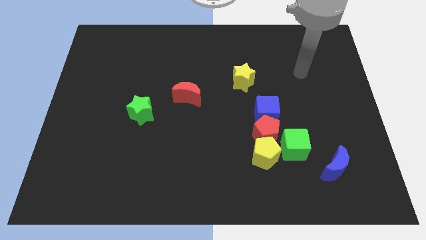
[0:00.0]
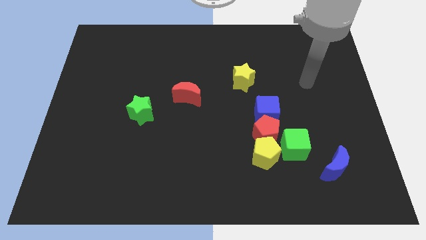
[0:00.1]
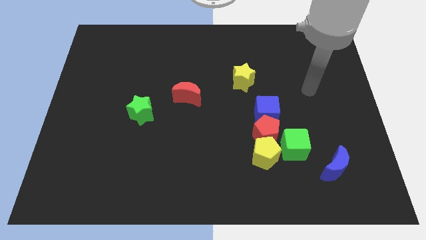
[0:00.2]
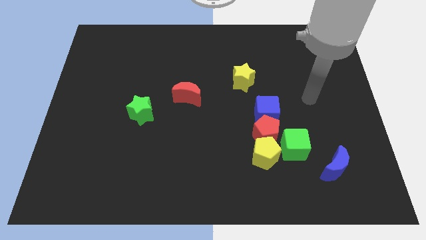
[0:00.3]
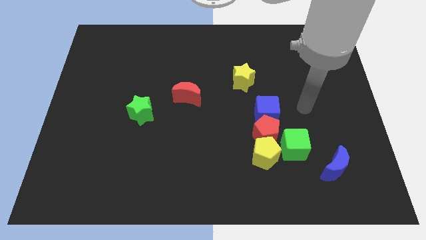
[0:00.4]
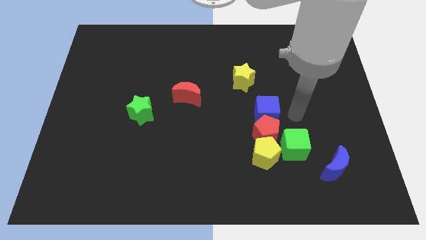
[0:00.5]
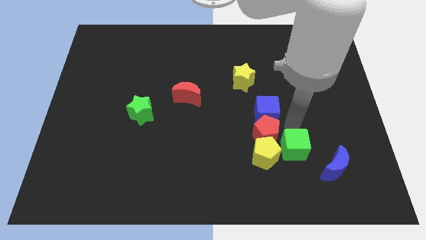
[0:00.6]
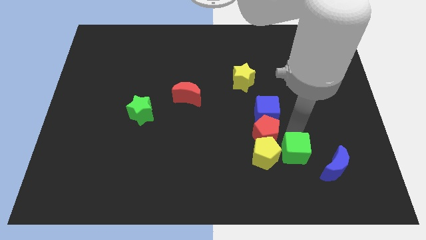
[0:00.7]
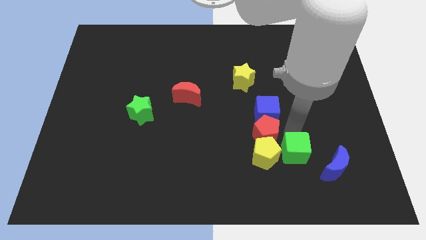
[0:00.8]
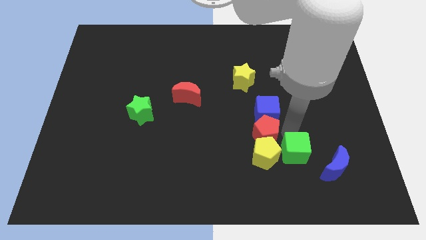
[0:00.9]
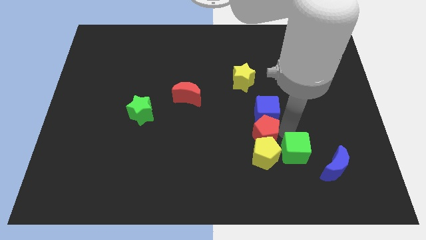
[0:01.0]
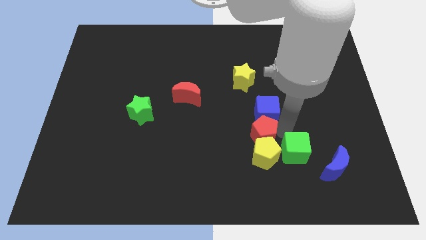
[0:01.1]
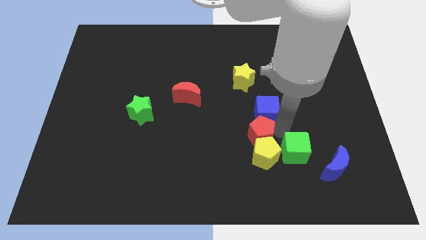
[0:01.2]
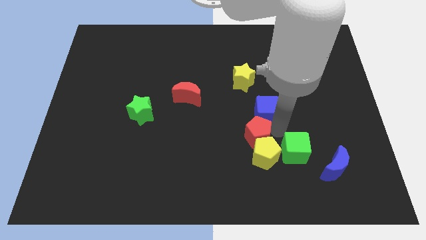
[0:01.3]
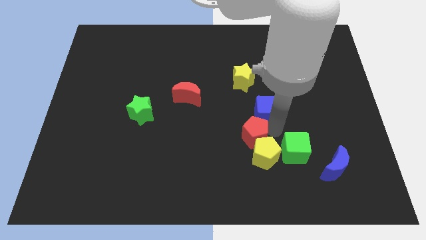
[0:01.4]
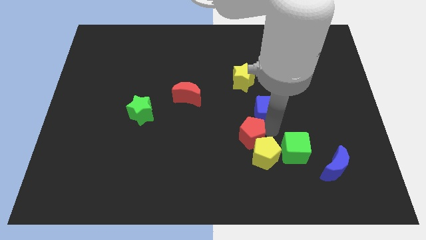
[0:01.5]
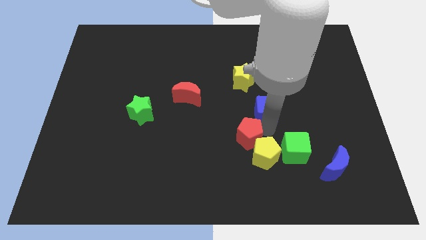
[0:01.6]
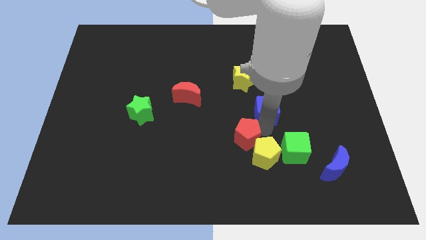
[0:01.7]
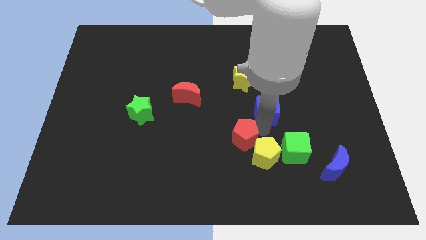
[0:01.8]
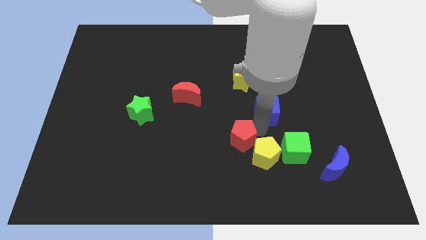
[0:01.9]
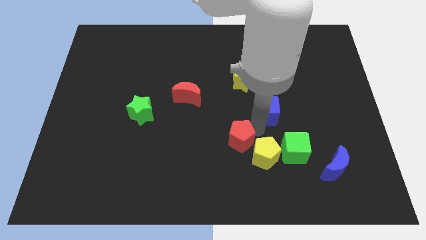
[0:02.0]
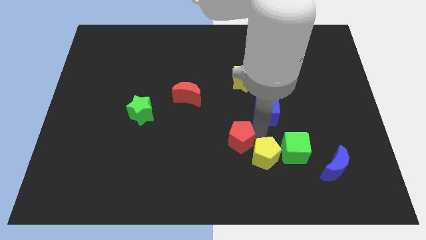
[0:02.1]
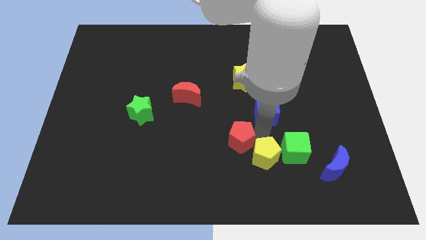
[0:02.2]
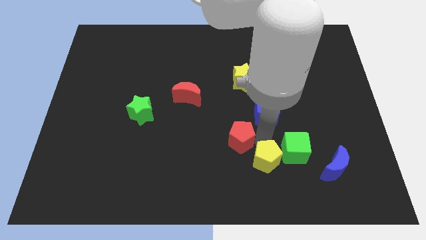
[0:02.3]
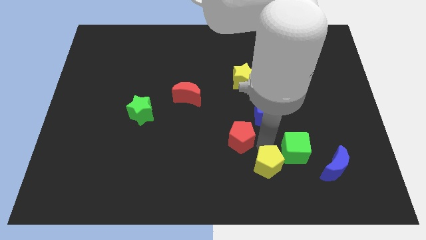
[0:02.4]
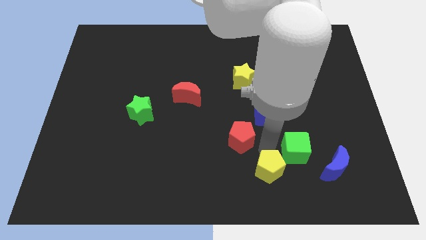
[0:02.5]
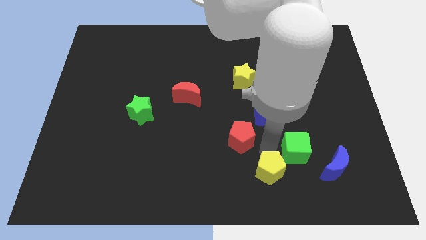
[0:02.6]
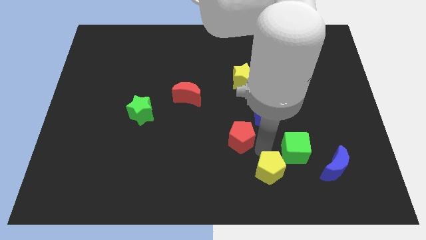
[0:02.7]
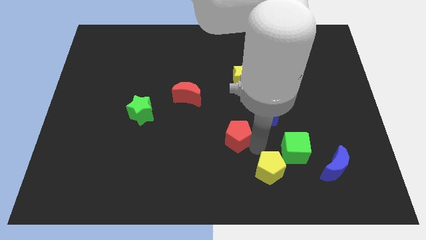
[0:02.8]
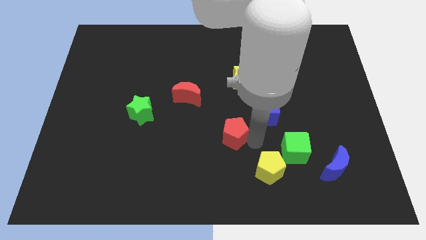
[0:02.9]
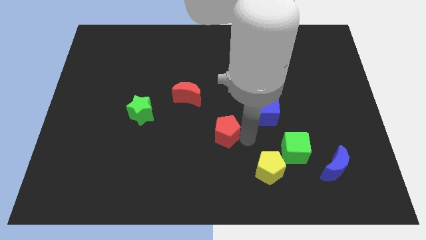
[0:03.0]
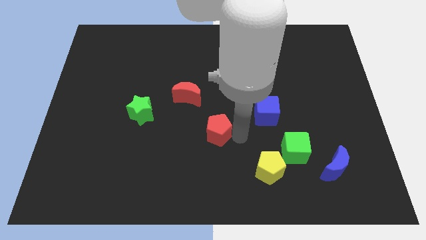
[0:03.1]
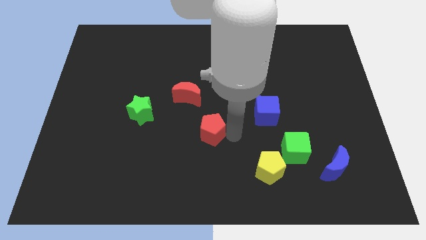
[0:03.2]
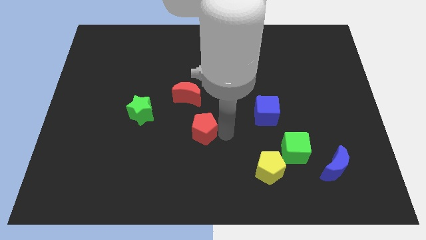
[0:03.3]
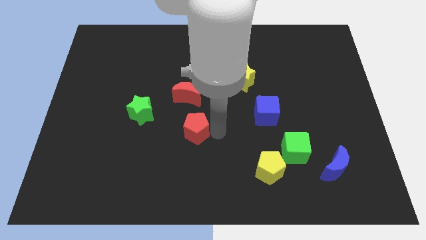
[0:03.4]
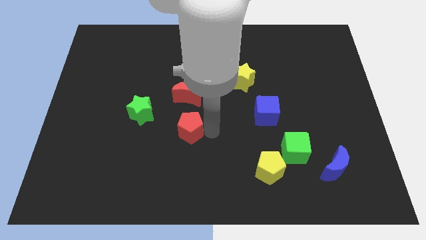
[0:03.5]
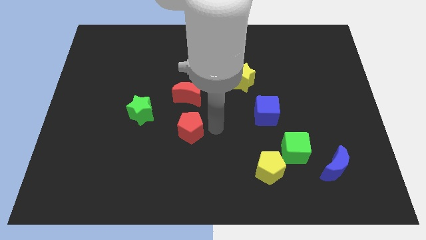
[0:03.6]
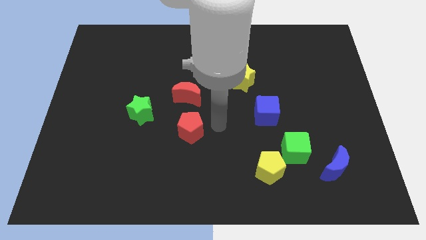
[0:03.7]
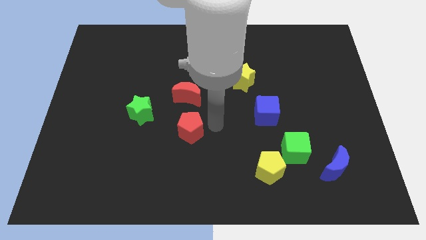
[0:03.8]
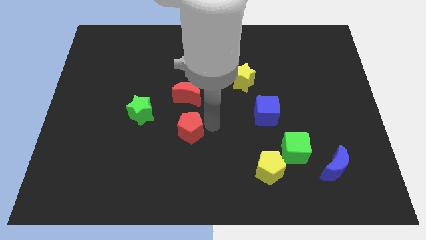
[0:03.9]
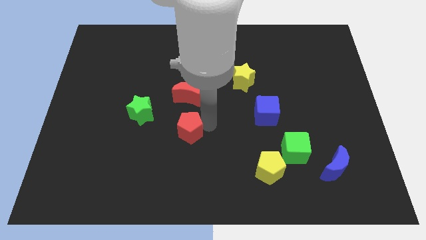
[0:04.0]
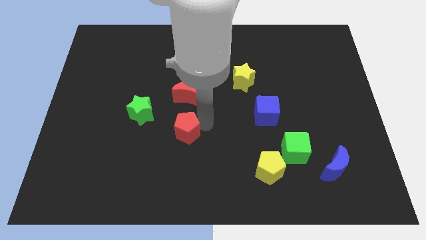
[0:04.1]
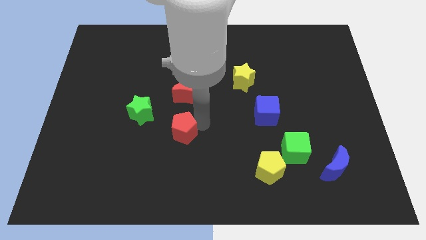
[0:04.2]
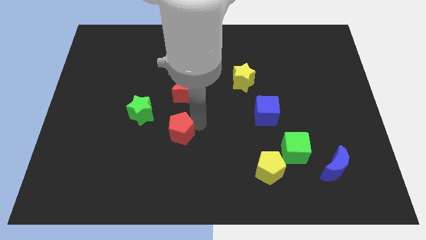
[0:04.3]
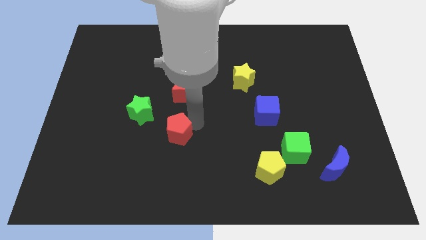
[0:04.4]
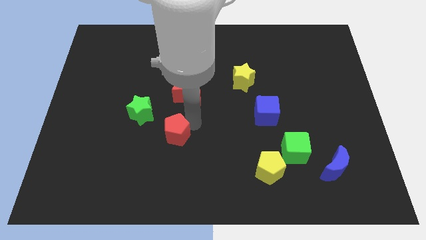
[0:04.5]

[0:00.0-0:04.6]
push the red pentagon to the left

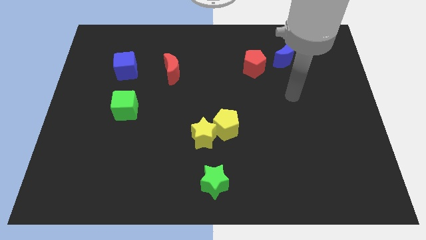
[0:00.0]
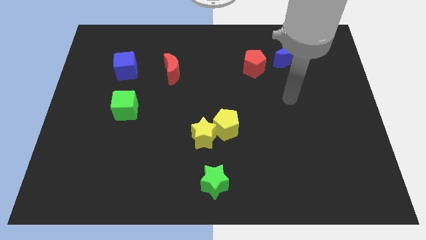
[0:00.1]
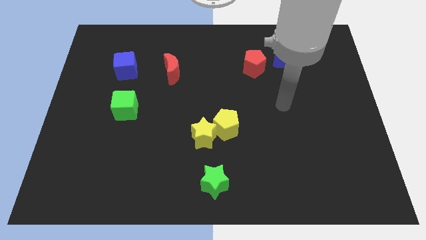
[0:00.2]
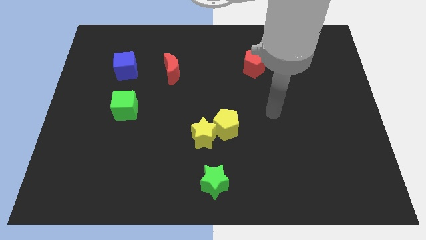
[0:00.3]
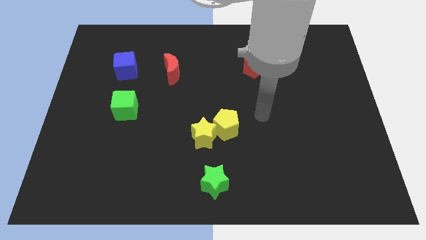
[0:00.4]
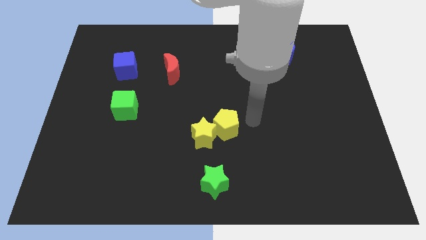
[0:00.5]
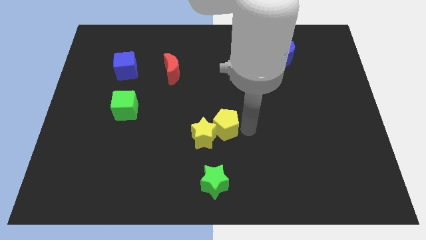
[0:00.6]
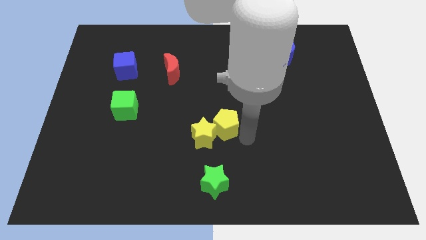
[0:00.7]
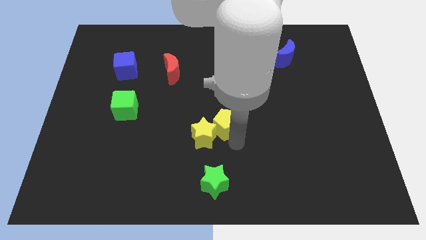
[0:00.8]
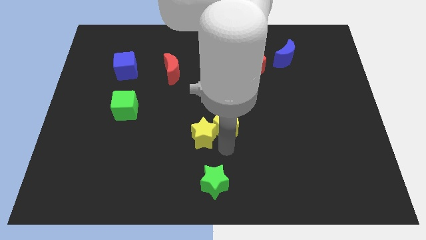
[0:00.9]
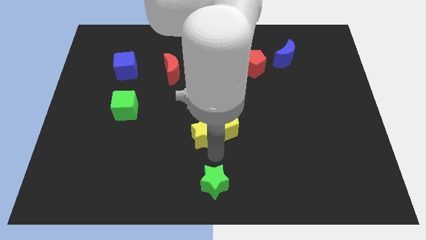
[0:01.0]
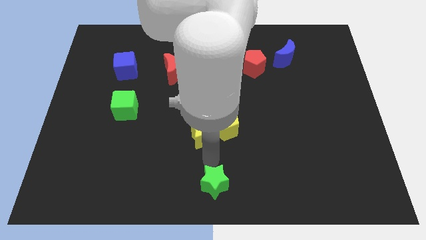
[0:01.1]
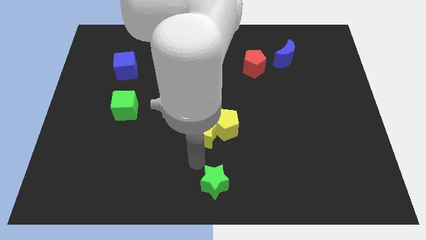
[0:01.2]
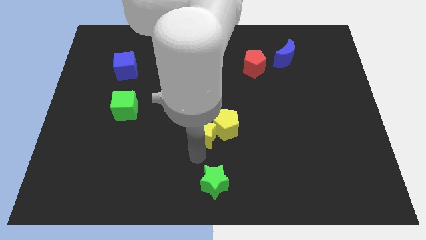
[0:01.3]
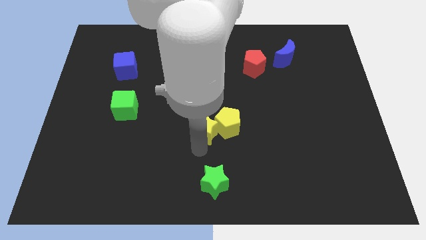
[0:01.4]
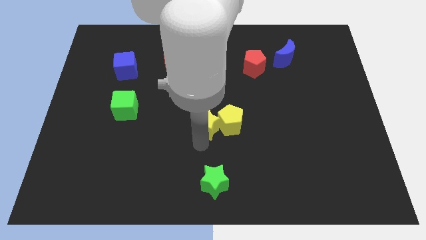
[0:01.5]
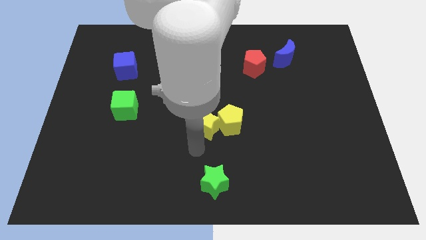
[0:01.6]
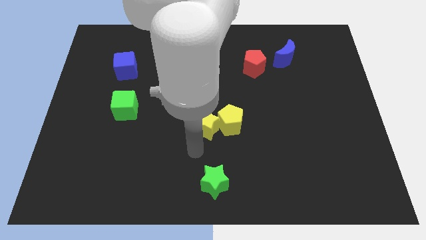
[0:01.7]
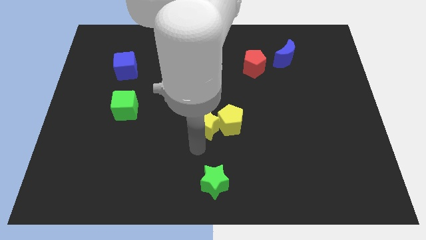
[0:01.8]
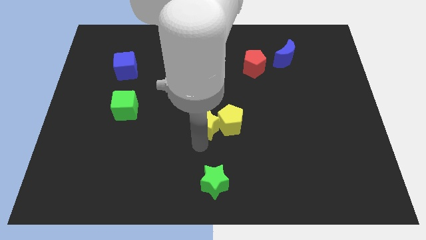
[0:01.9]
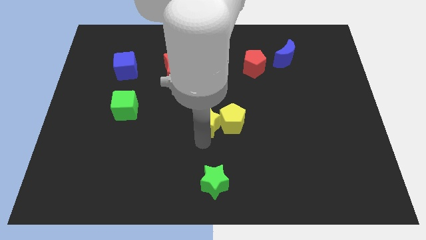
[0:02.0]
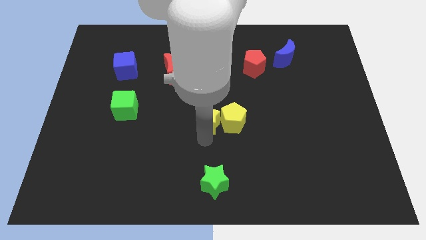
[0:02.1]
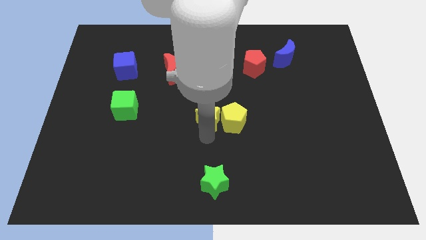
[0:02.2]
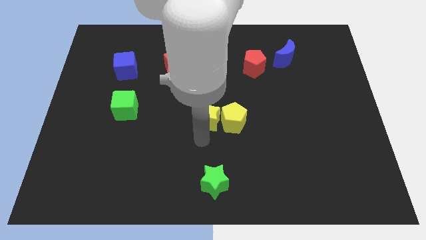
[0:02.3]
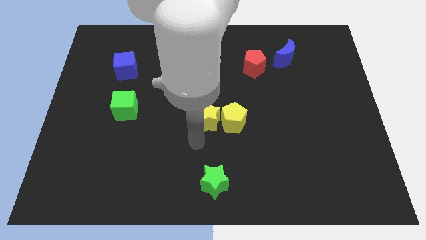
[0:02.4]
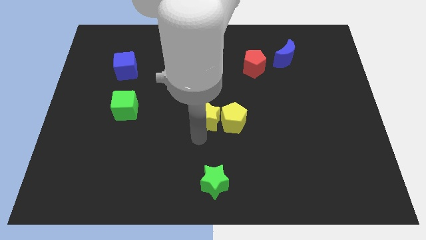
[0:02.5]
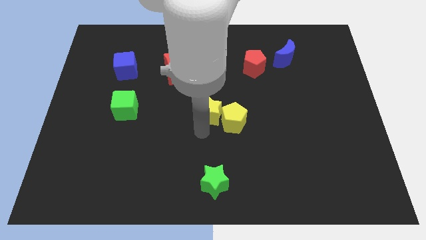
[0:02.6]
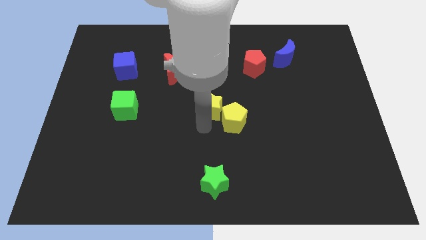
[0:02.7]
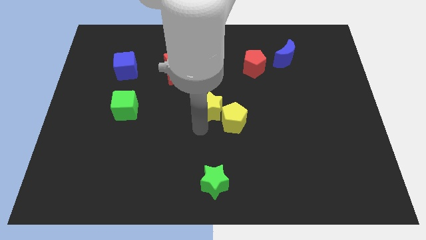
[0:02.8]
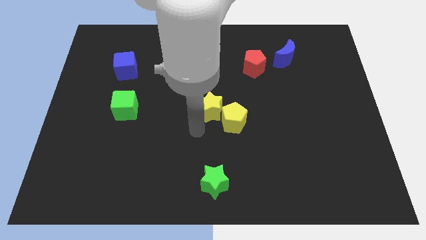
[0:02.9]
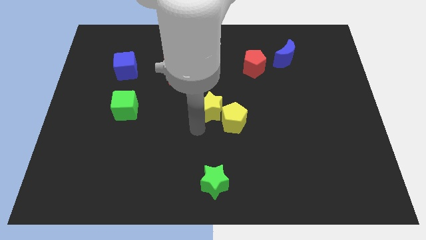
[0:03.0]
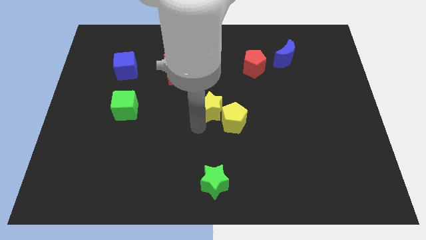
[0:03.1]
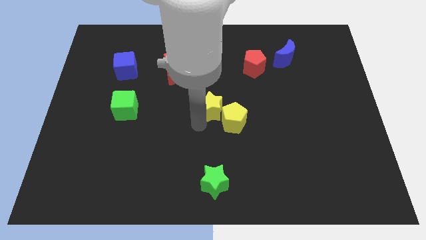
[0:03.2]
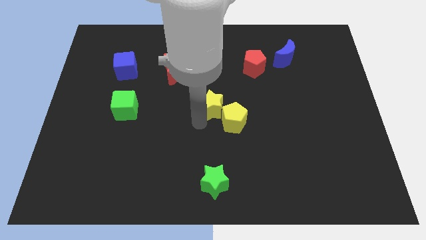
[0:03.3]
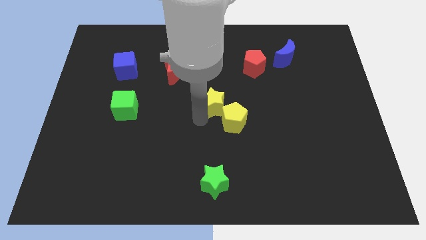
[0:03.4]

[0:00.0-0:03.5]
slide the yellow star up and right somewhat

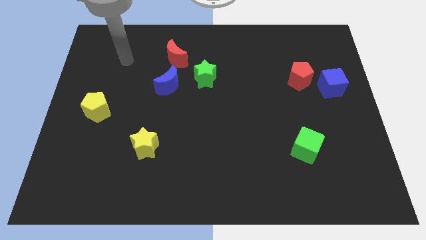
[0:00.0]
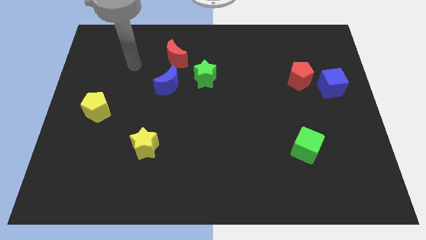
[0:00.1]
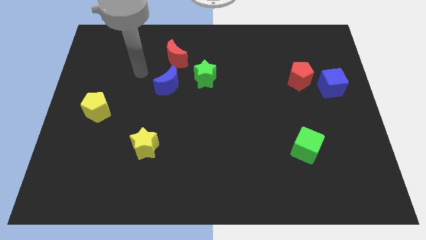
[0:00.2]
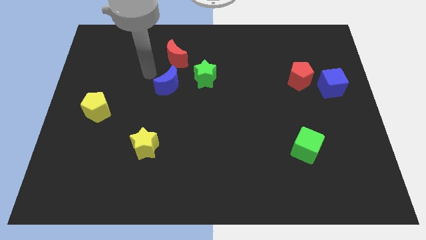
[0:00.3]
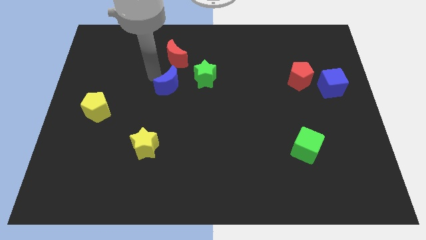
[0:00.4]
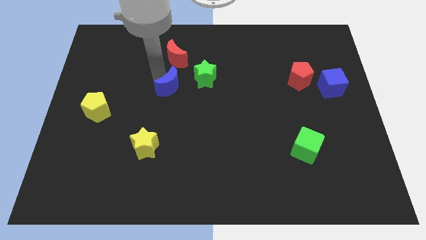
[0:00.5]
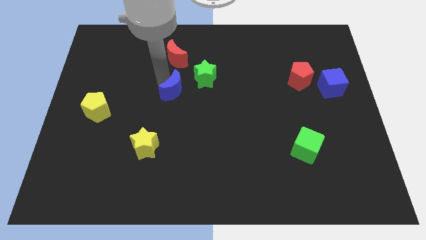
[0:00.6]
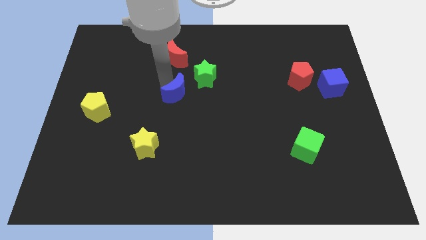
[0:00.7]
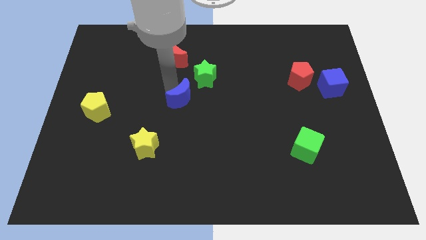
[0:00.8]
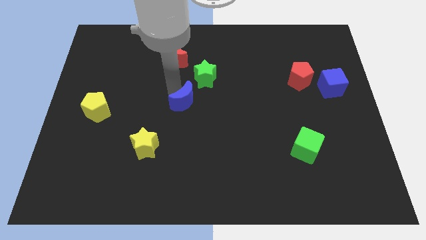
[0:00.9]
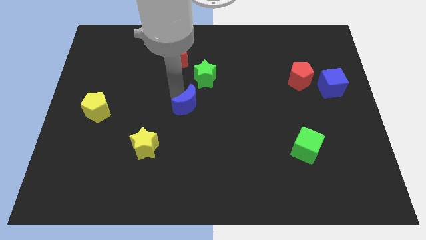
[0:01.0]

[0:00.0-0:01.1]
push the blue moon somewhat down and to the right diagonally
